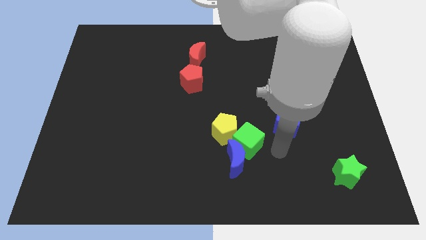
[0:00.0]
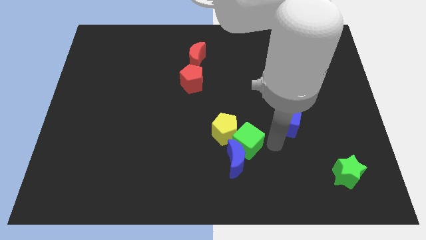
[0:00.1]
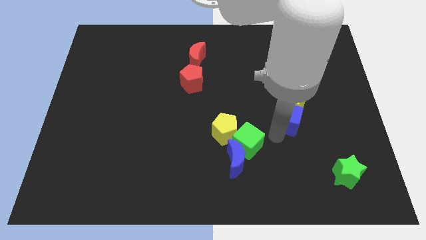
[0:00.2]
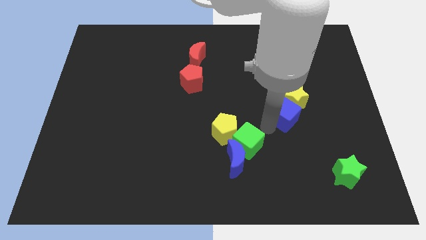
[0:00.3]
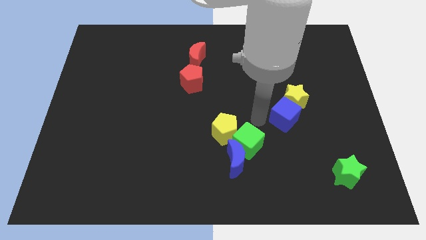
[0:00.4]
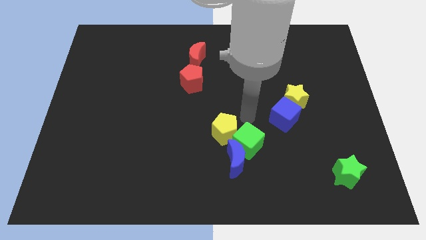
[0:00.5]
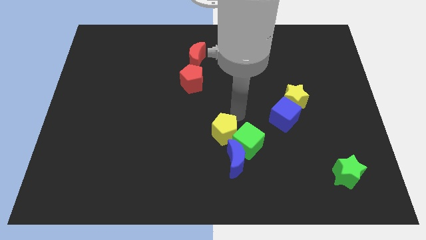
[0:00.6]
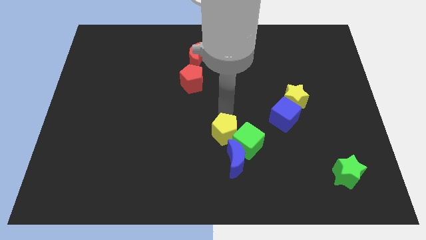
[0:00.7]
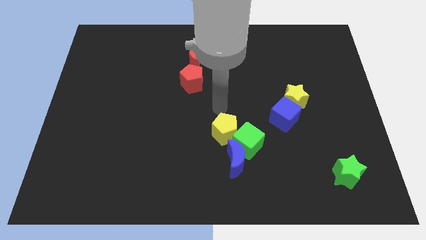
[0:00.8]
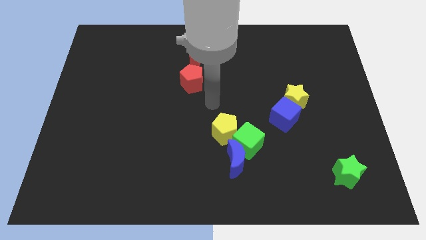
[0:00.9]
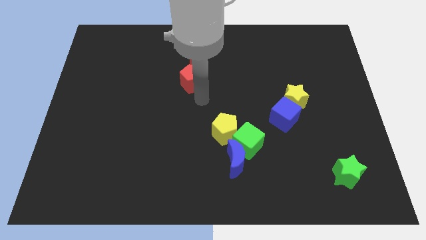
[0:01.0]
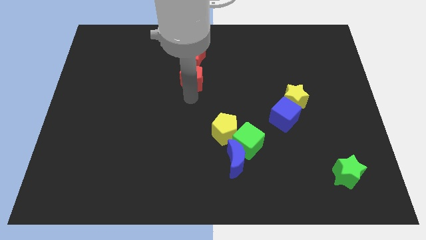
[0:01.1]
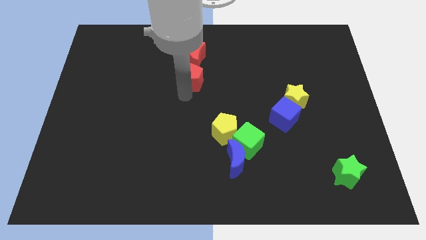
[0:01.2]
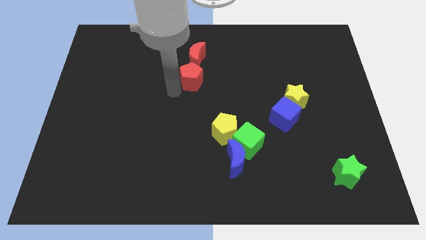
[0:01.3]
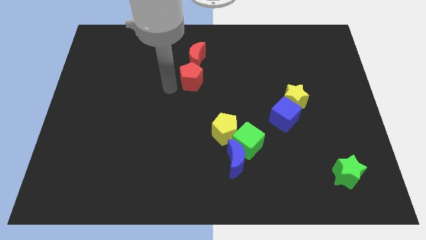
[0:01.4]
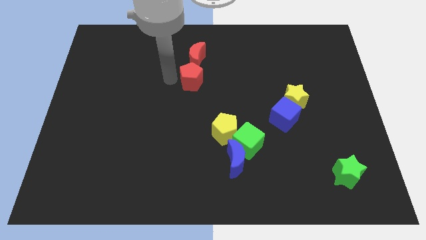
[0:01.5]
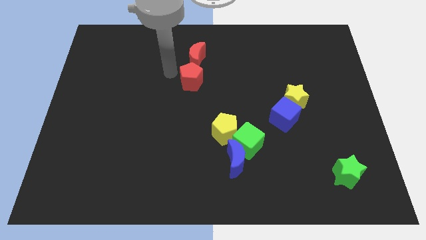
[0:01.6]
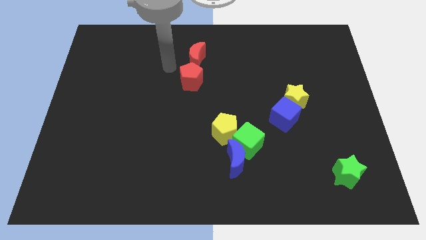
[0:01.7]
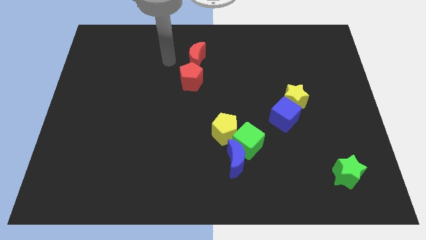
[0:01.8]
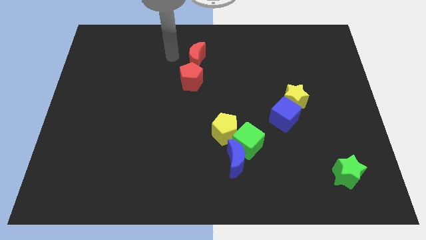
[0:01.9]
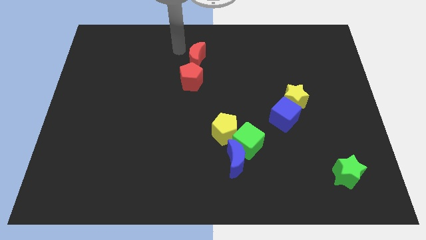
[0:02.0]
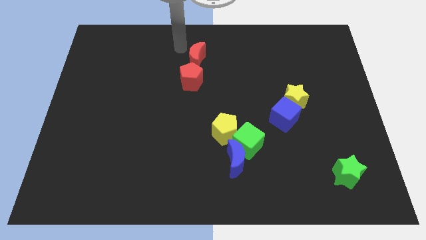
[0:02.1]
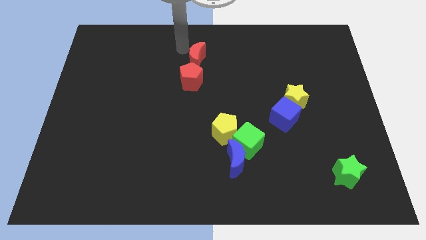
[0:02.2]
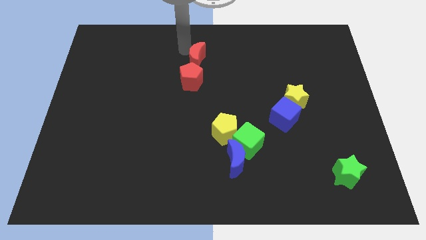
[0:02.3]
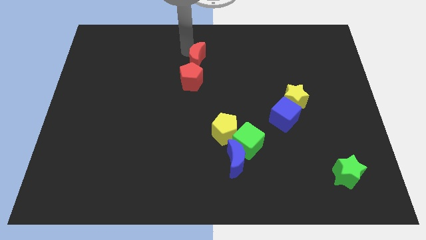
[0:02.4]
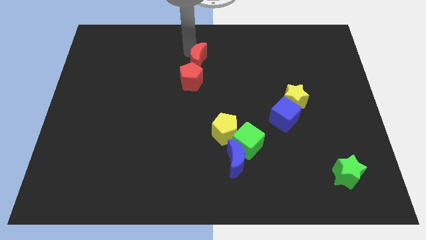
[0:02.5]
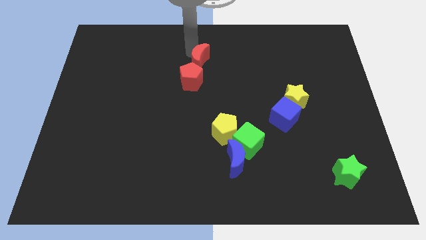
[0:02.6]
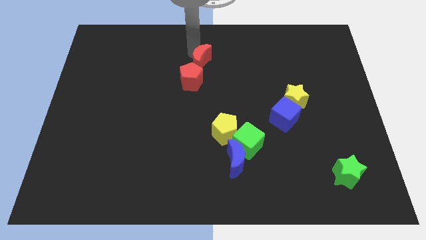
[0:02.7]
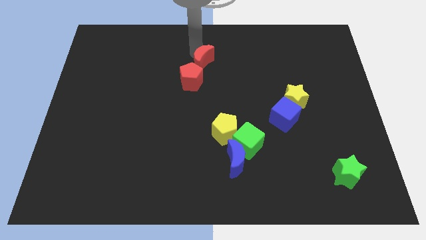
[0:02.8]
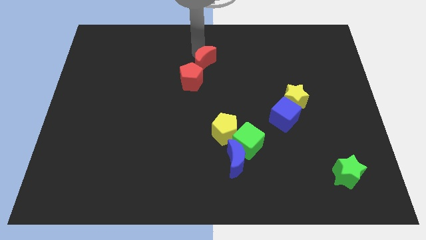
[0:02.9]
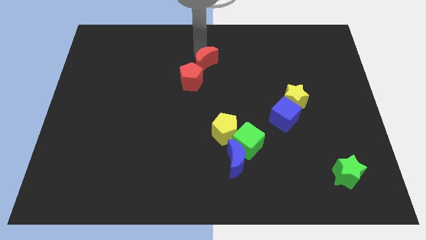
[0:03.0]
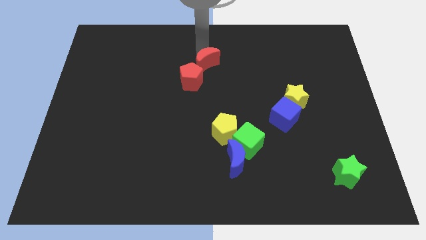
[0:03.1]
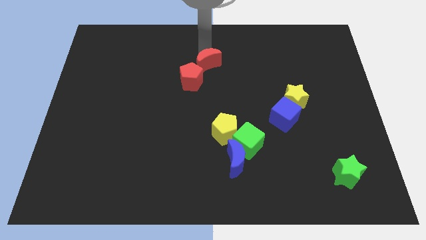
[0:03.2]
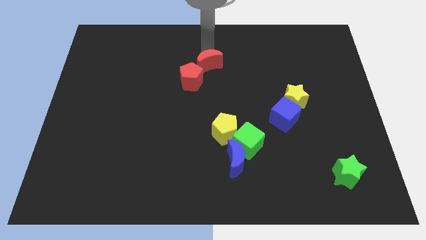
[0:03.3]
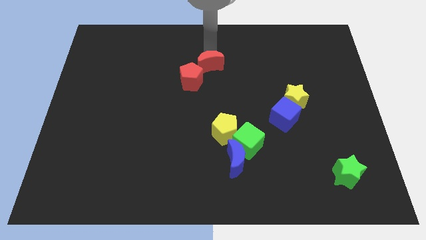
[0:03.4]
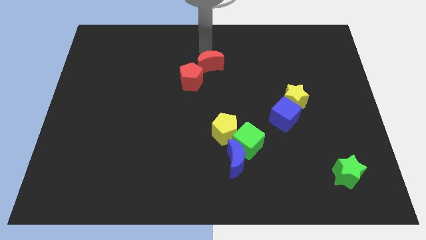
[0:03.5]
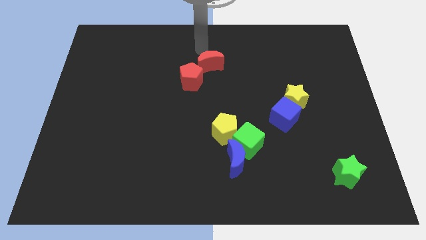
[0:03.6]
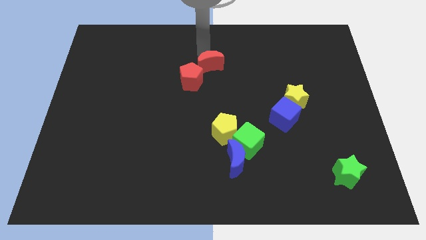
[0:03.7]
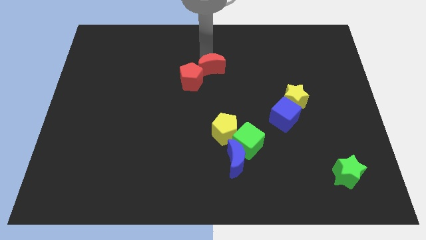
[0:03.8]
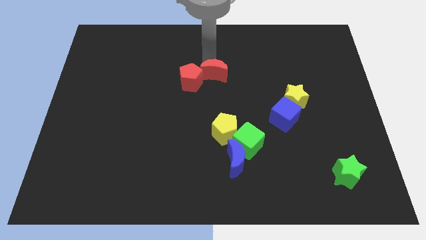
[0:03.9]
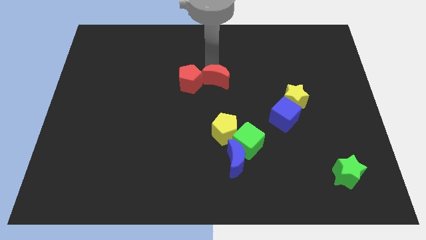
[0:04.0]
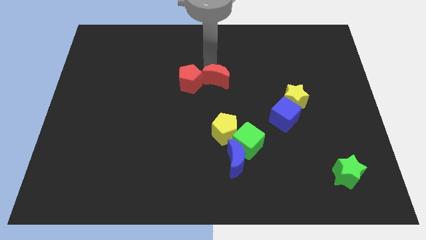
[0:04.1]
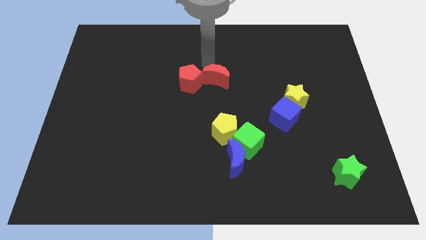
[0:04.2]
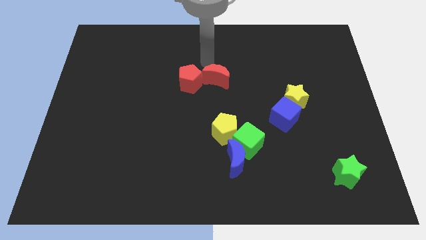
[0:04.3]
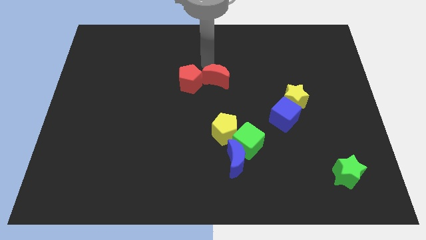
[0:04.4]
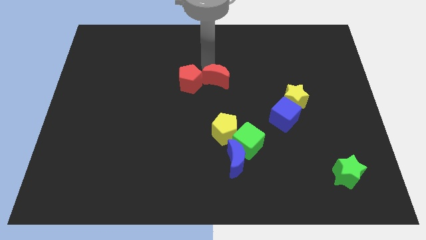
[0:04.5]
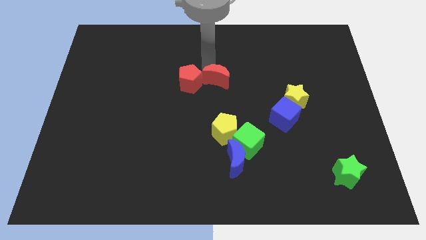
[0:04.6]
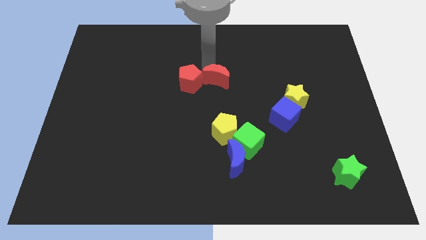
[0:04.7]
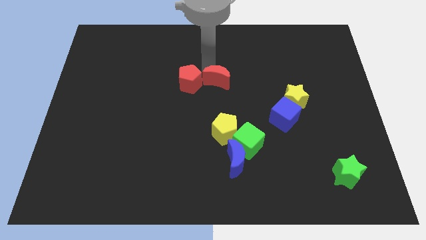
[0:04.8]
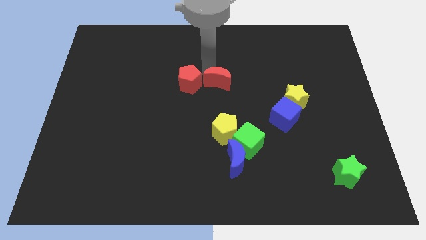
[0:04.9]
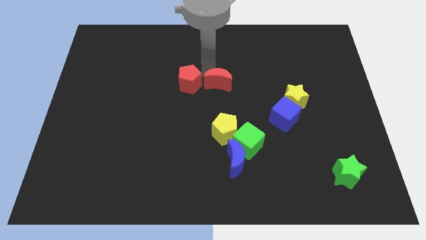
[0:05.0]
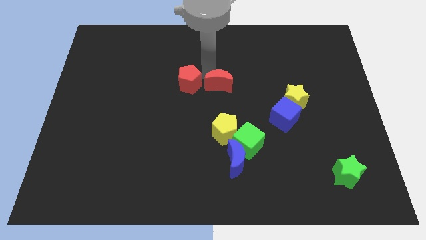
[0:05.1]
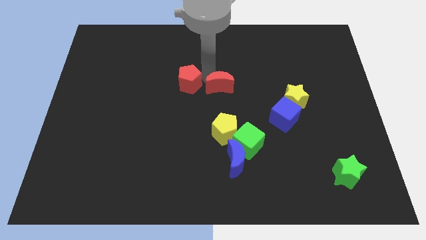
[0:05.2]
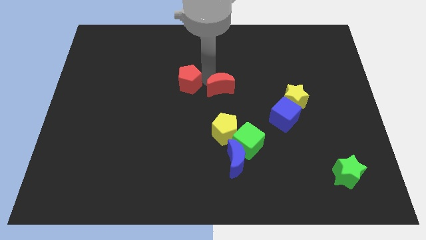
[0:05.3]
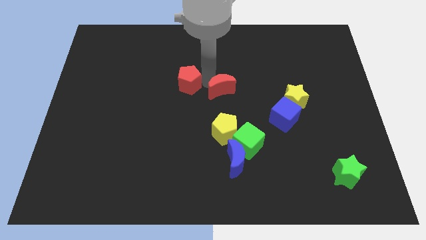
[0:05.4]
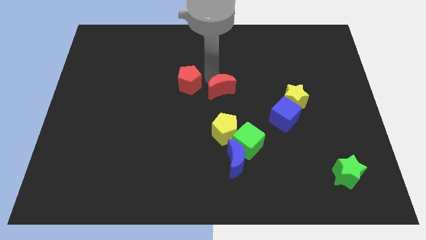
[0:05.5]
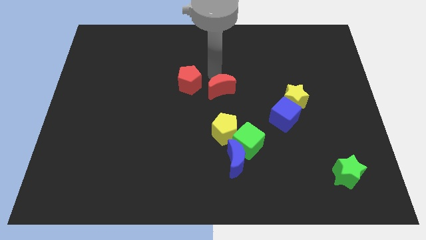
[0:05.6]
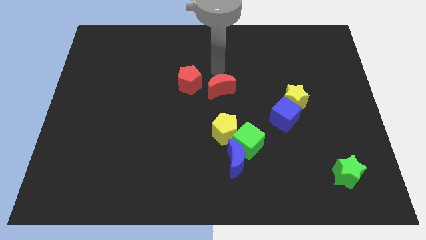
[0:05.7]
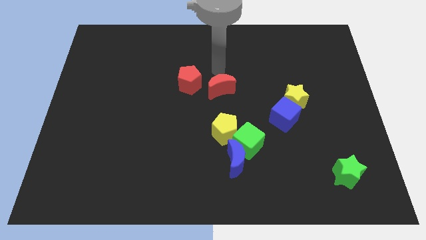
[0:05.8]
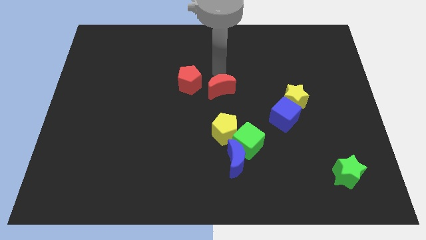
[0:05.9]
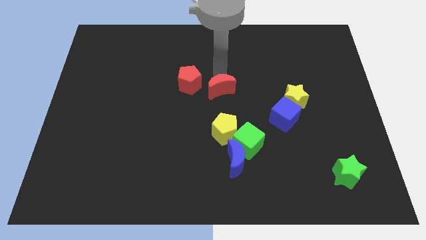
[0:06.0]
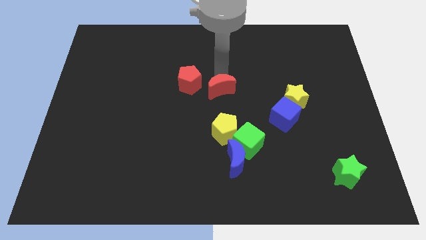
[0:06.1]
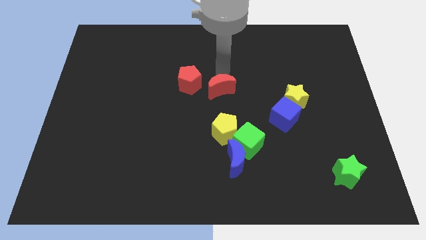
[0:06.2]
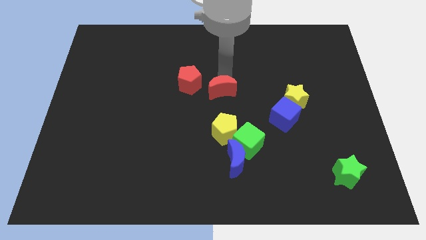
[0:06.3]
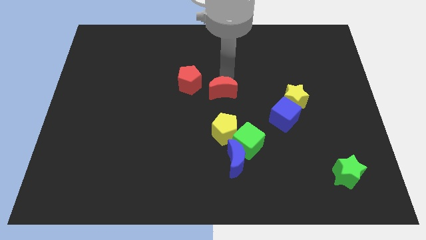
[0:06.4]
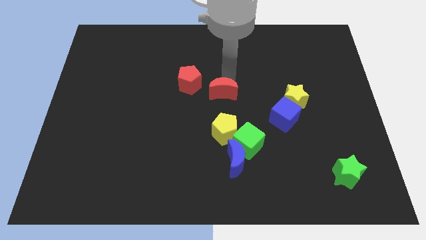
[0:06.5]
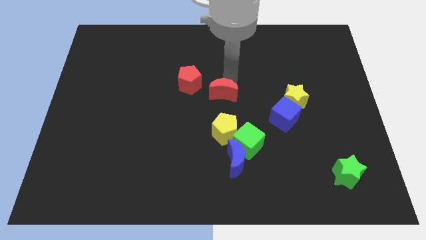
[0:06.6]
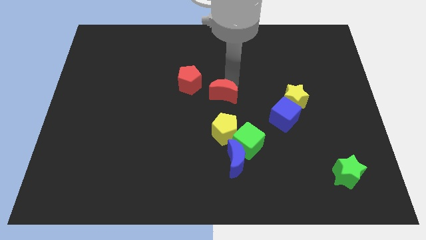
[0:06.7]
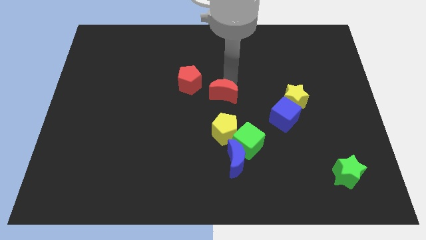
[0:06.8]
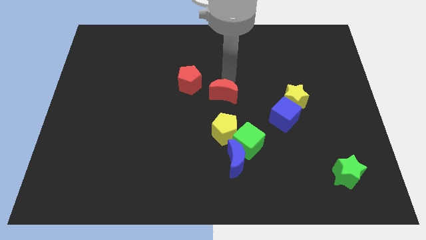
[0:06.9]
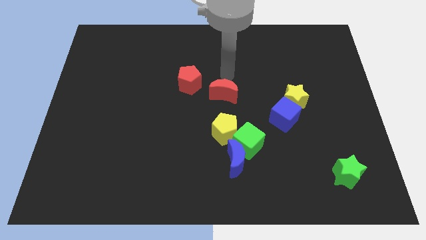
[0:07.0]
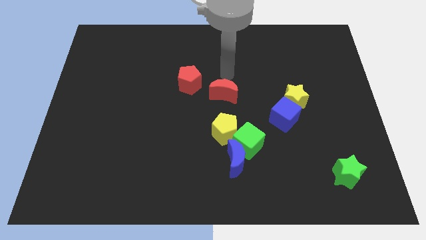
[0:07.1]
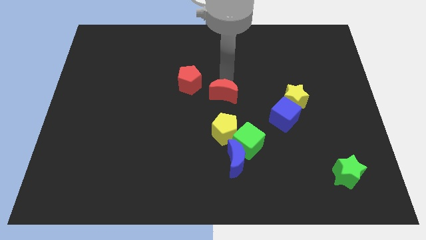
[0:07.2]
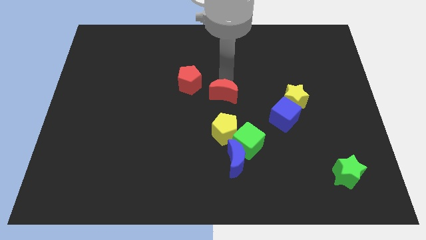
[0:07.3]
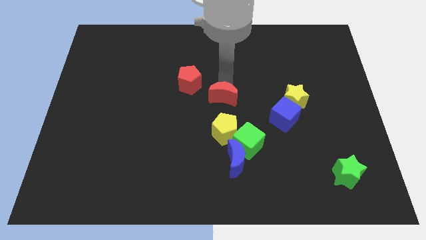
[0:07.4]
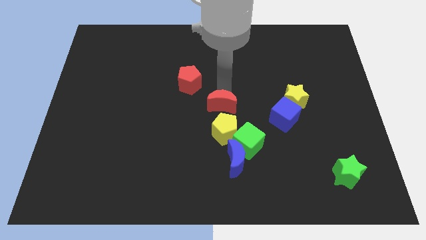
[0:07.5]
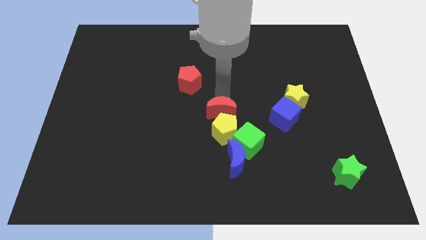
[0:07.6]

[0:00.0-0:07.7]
put the red moon close to the yellow pentagon
